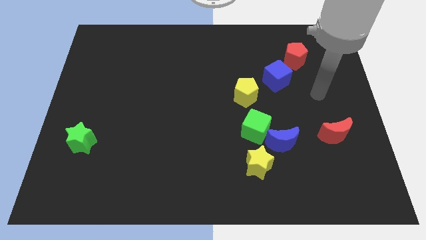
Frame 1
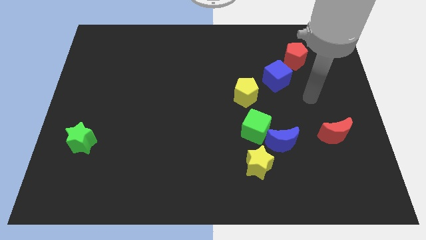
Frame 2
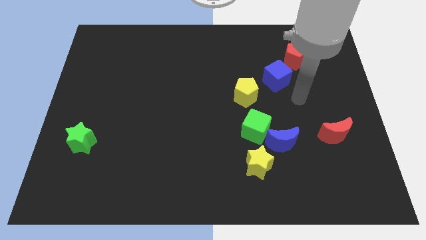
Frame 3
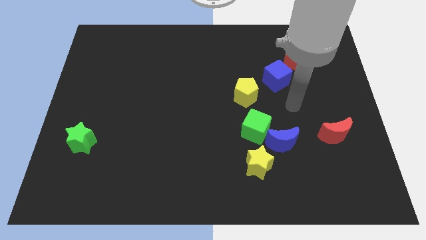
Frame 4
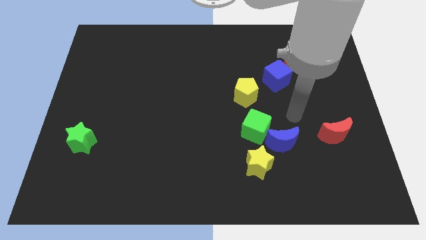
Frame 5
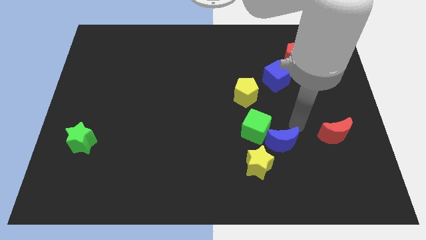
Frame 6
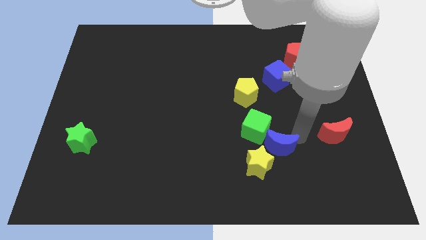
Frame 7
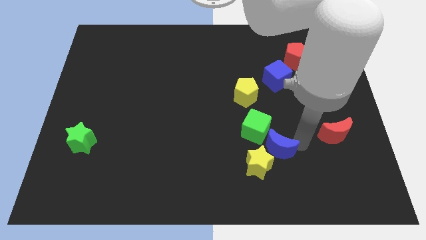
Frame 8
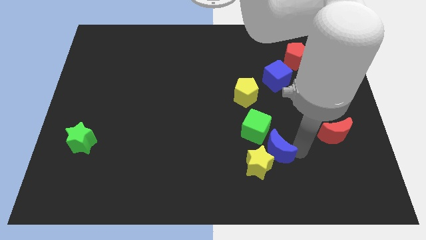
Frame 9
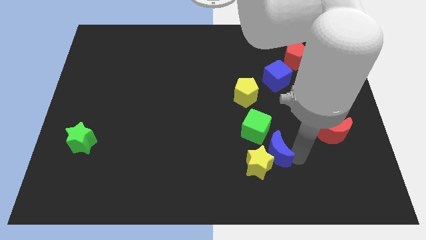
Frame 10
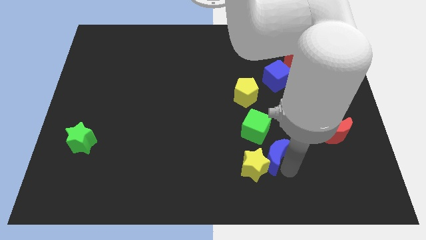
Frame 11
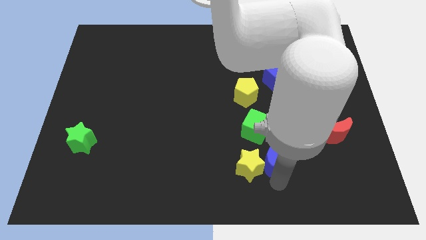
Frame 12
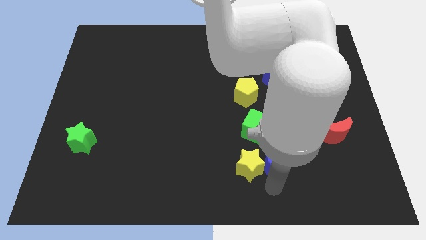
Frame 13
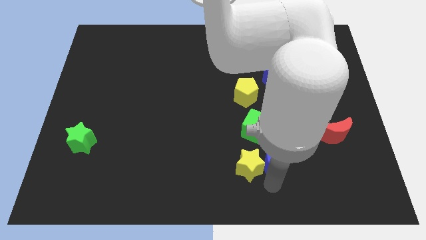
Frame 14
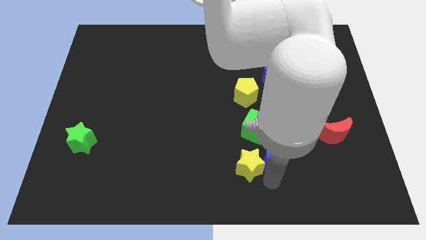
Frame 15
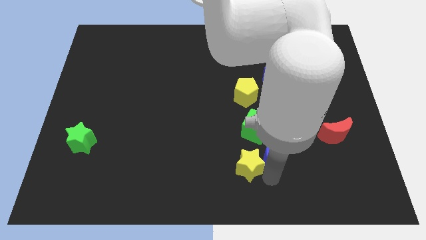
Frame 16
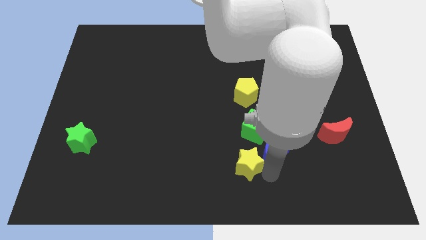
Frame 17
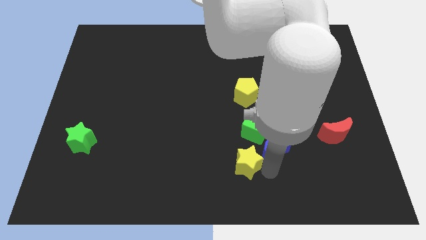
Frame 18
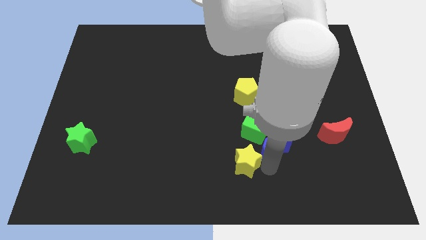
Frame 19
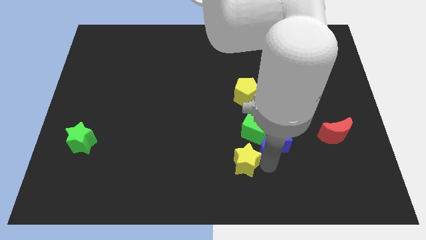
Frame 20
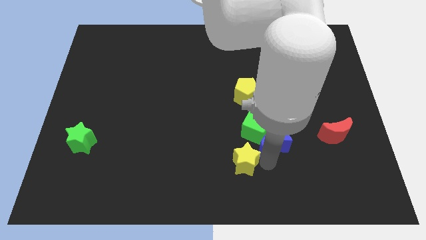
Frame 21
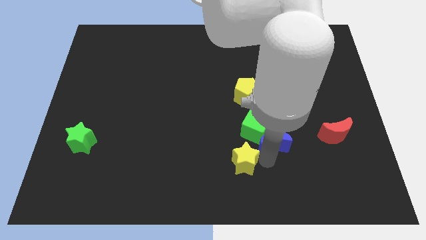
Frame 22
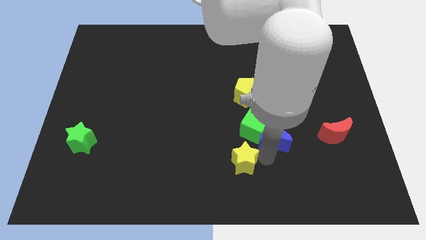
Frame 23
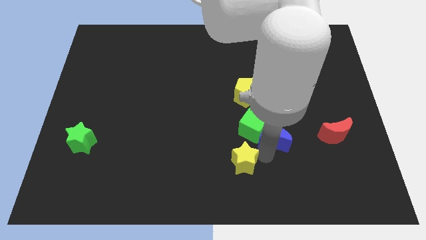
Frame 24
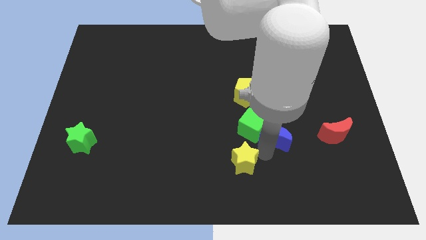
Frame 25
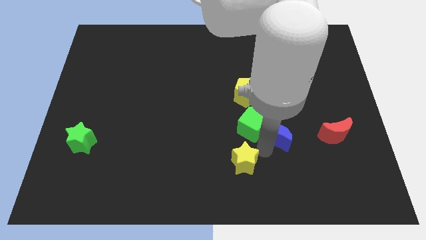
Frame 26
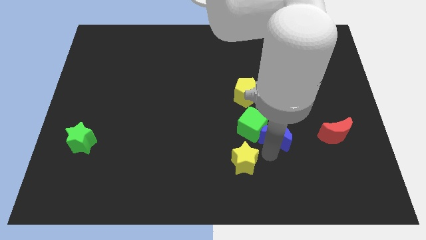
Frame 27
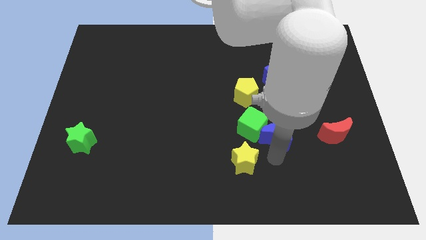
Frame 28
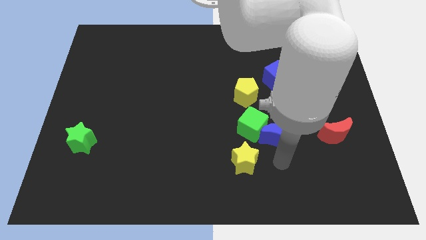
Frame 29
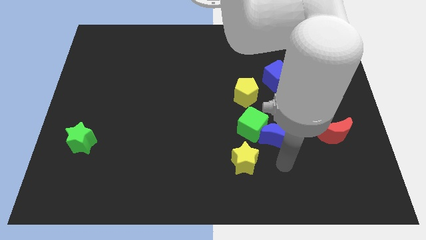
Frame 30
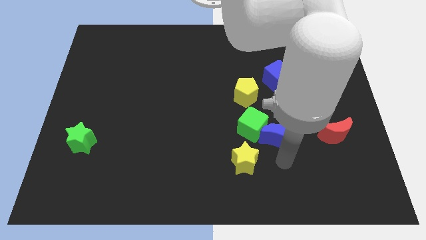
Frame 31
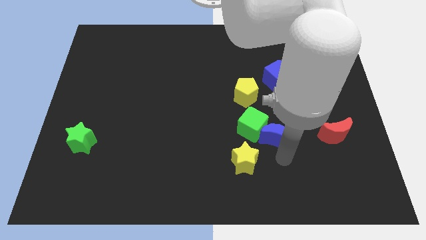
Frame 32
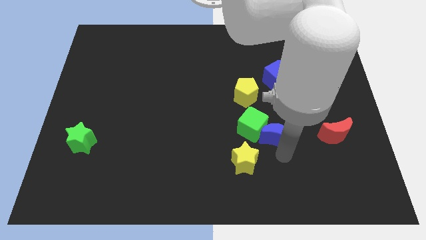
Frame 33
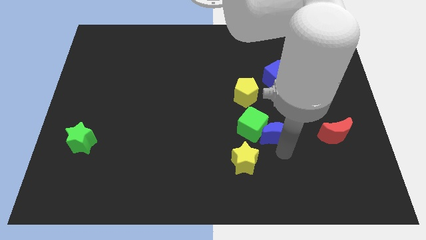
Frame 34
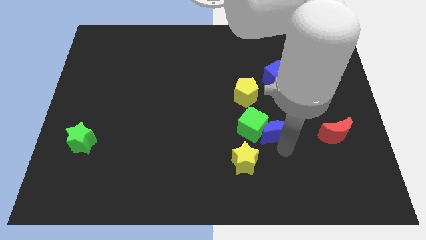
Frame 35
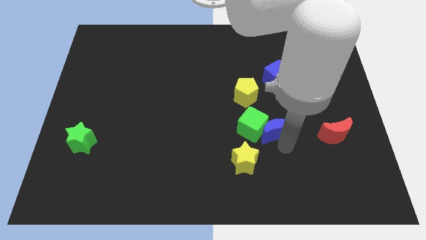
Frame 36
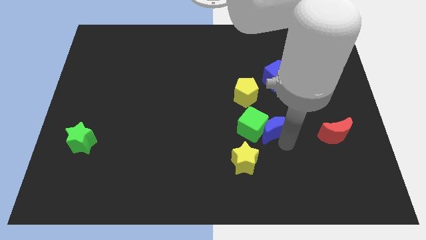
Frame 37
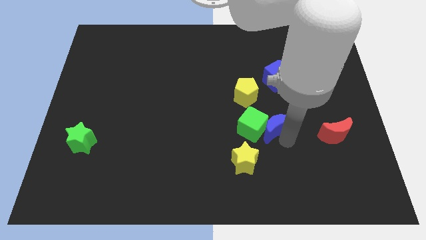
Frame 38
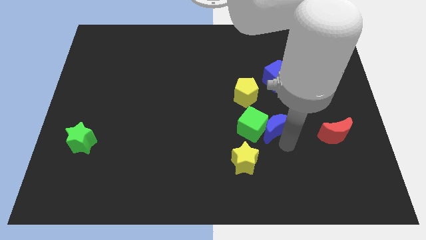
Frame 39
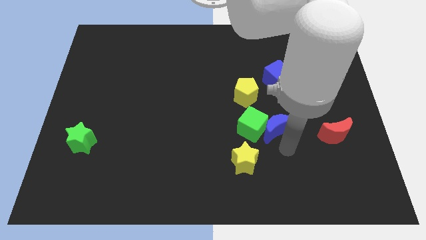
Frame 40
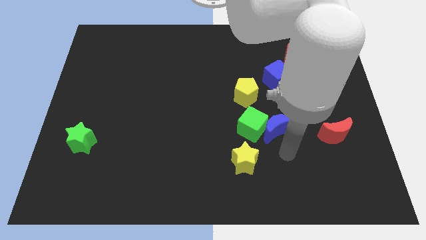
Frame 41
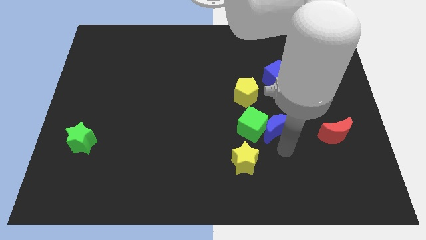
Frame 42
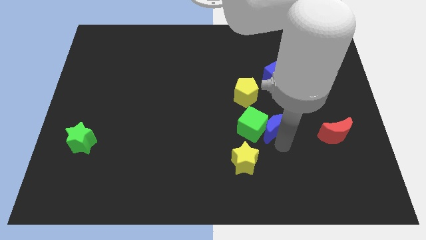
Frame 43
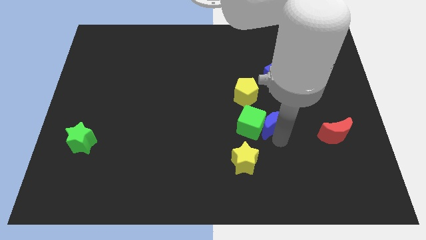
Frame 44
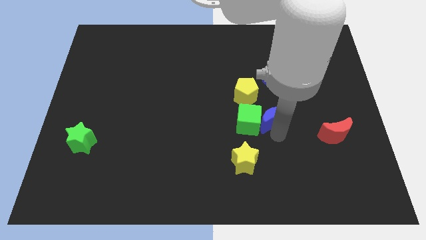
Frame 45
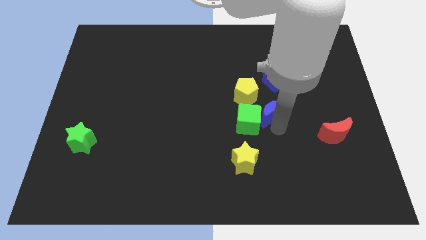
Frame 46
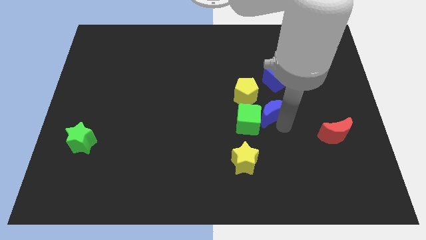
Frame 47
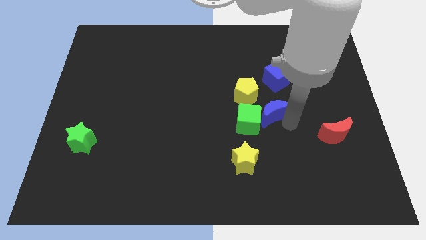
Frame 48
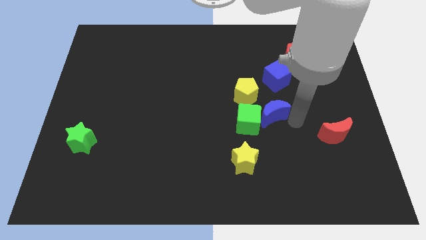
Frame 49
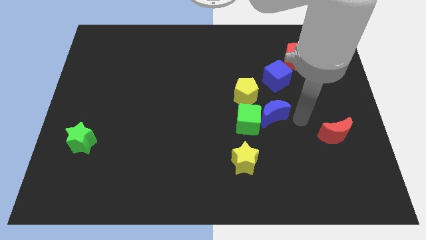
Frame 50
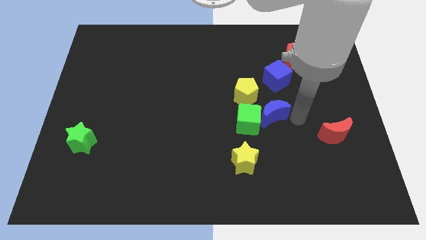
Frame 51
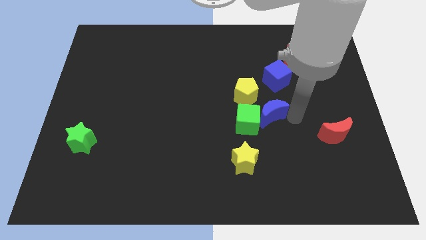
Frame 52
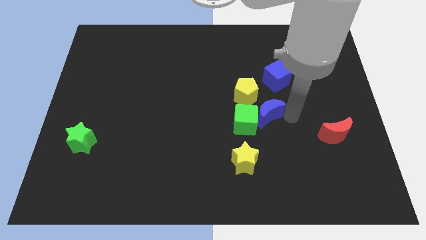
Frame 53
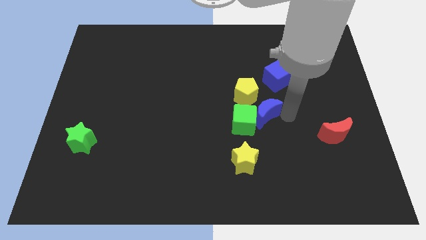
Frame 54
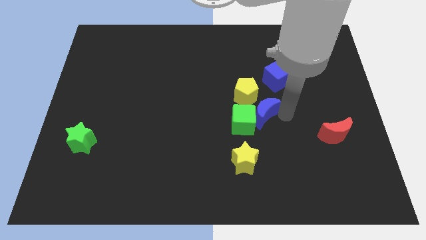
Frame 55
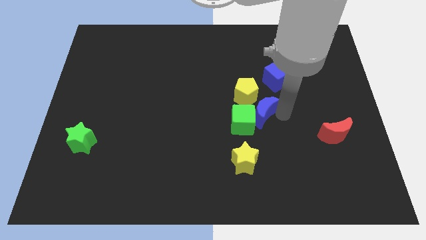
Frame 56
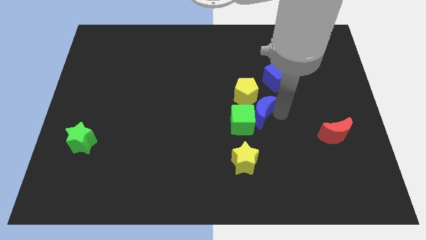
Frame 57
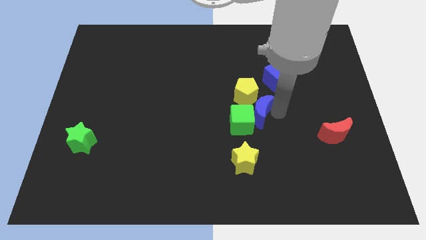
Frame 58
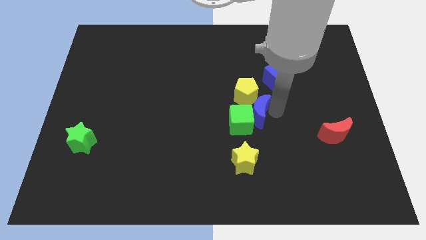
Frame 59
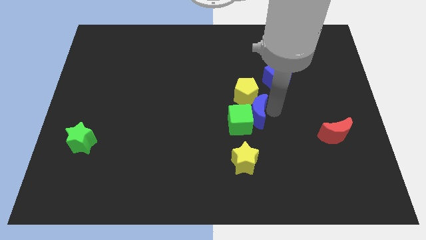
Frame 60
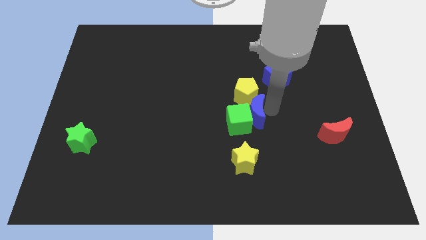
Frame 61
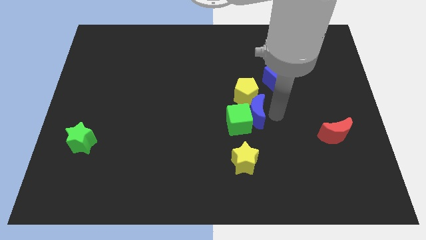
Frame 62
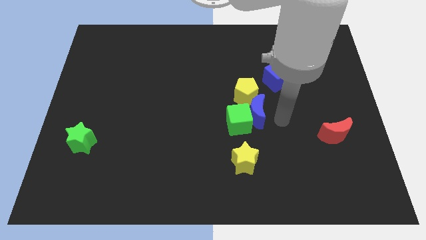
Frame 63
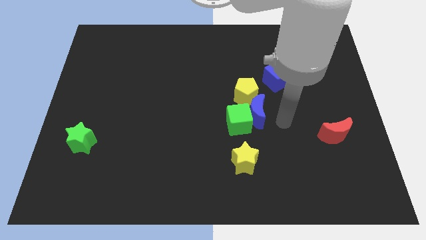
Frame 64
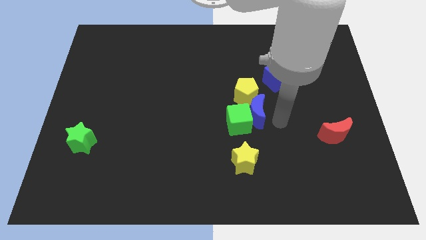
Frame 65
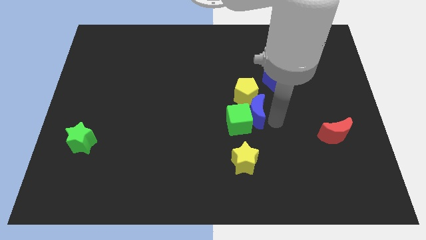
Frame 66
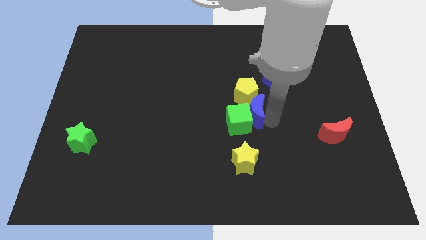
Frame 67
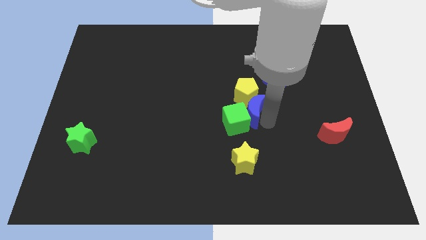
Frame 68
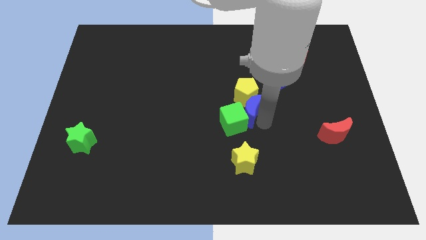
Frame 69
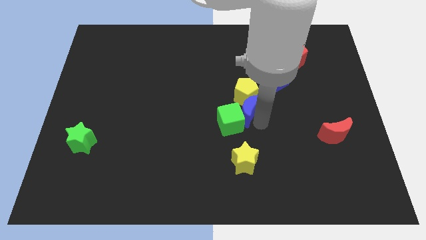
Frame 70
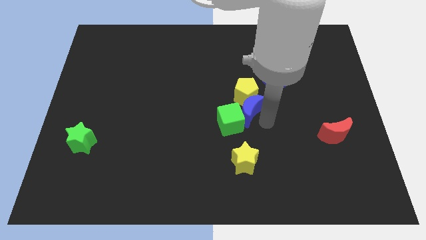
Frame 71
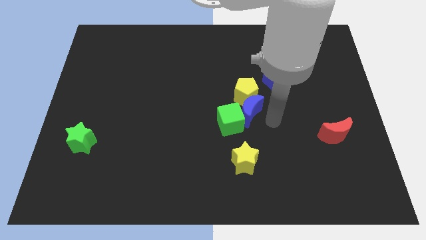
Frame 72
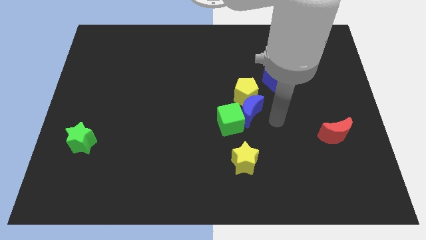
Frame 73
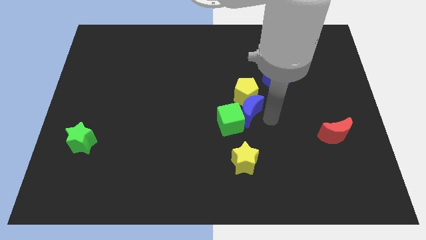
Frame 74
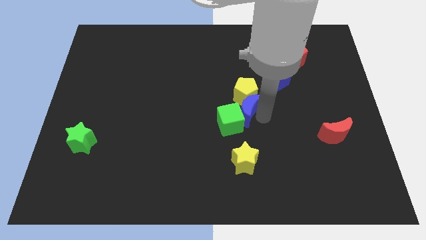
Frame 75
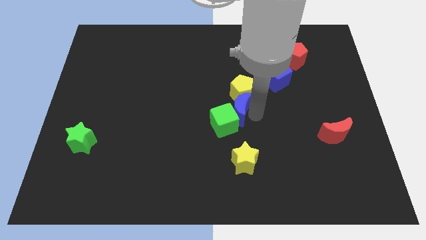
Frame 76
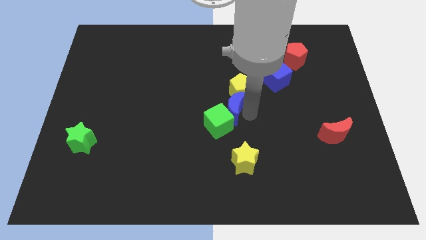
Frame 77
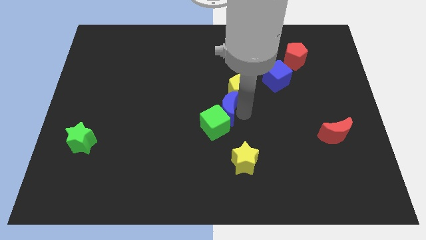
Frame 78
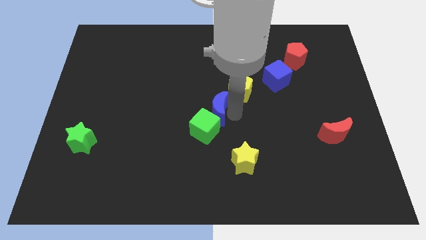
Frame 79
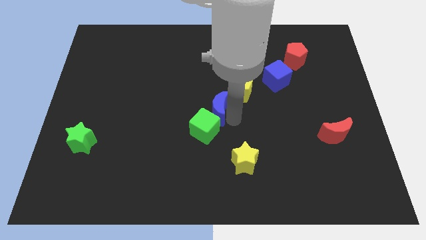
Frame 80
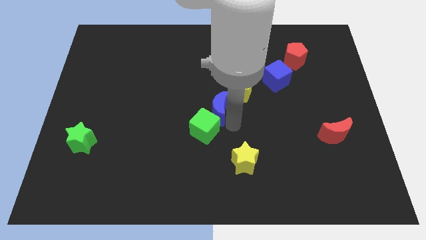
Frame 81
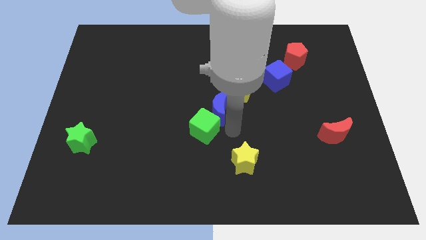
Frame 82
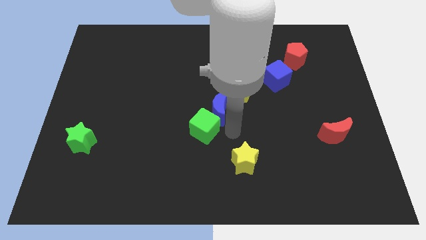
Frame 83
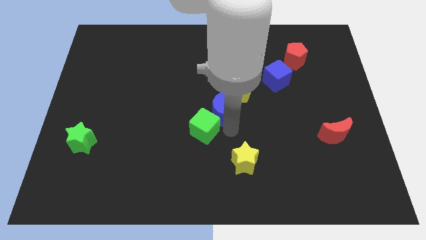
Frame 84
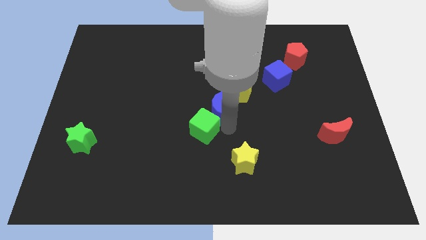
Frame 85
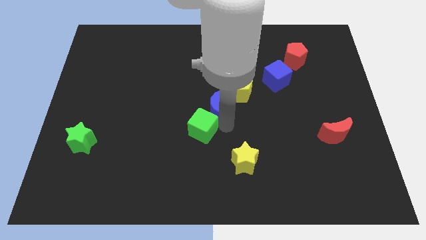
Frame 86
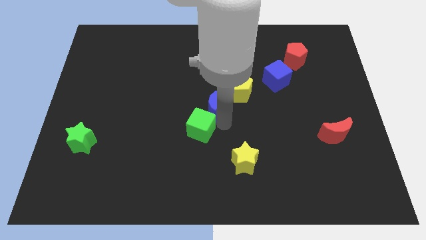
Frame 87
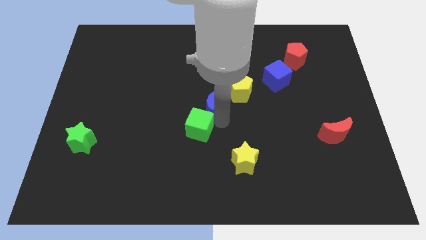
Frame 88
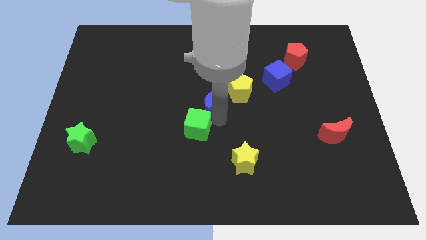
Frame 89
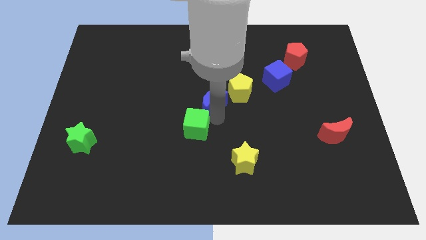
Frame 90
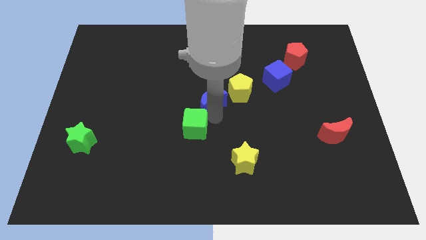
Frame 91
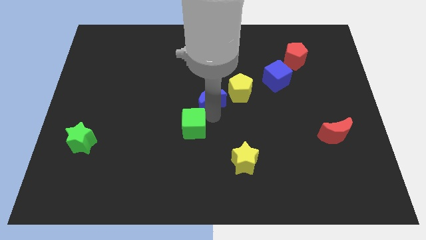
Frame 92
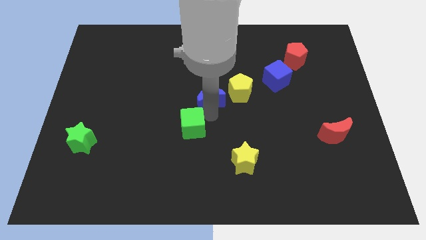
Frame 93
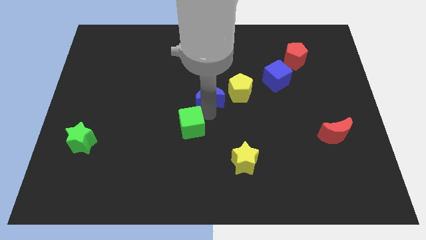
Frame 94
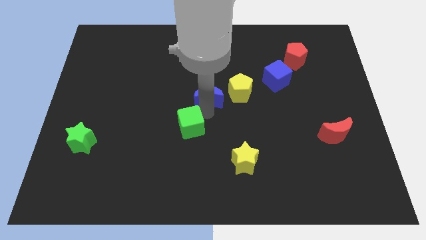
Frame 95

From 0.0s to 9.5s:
move the blue moon upwards and then to the left
